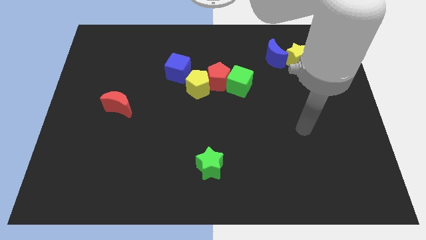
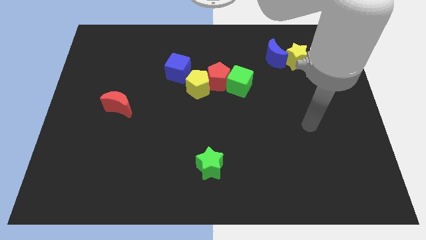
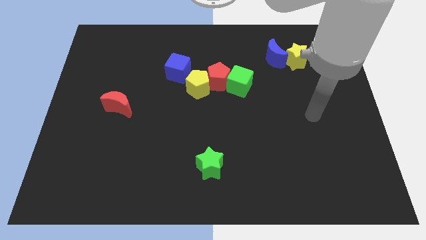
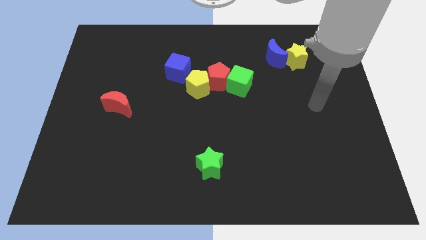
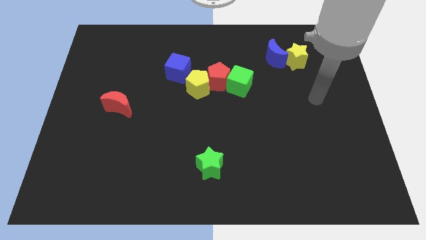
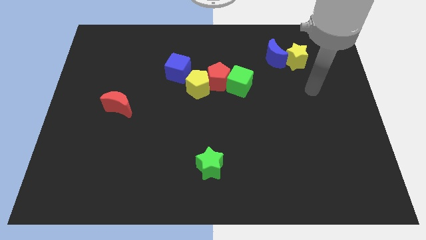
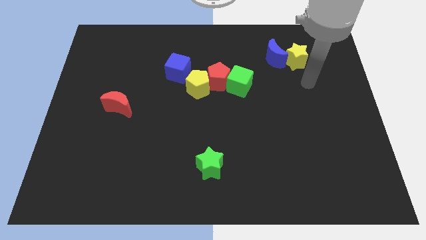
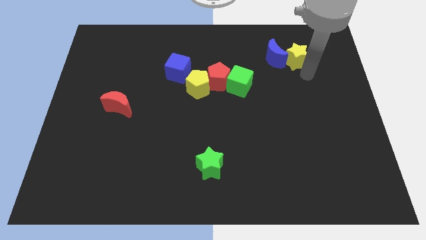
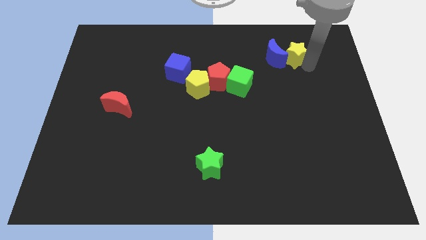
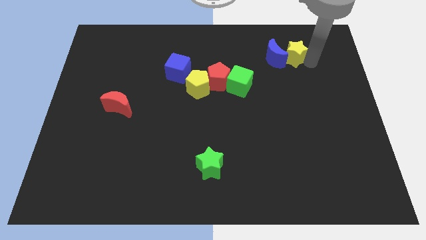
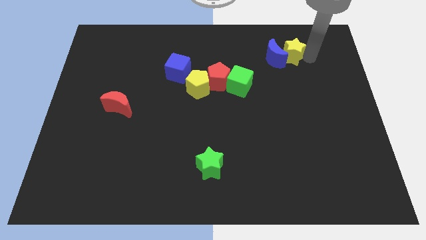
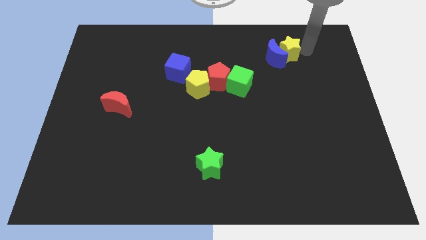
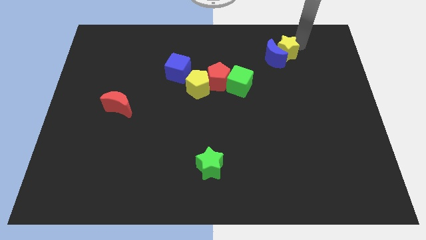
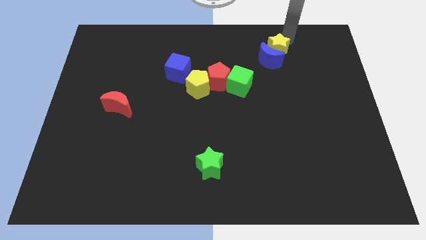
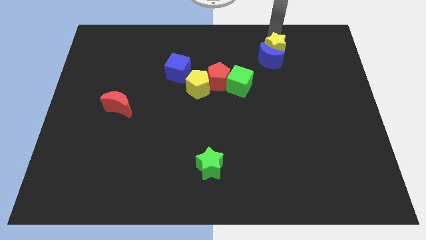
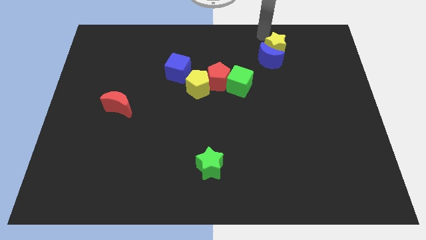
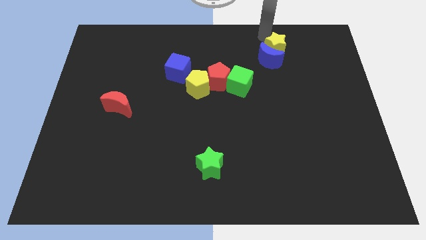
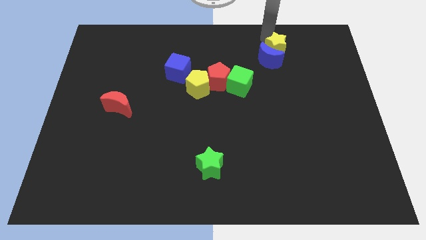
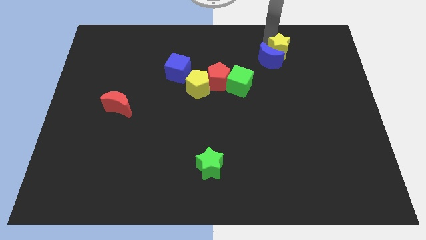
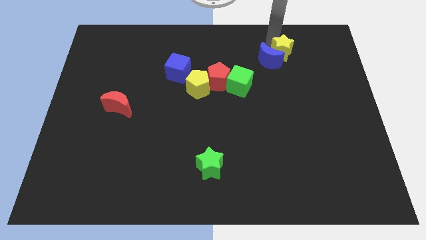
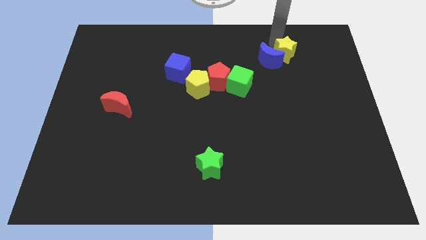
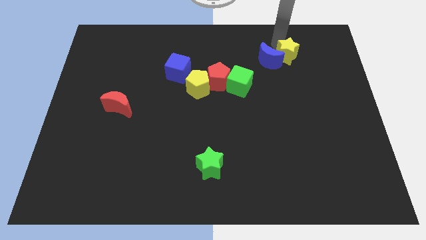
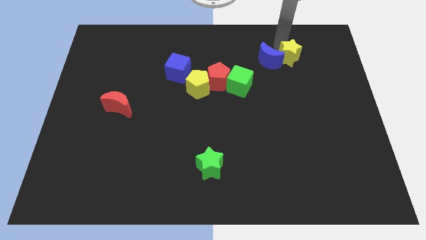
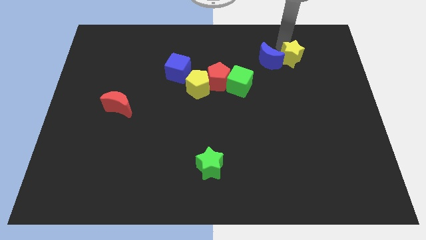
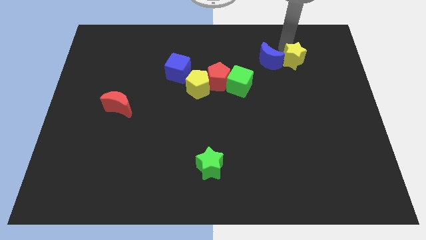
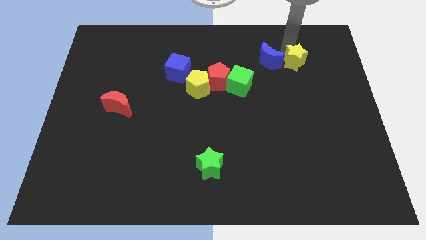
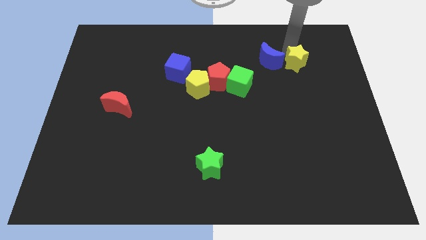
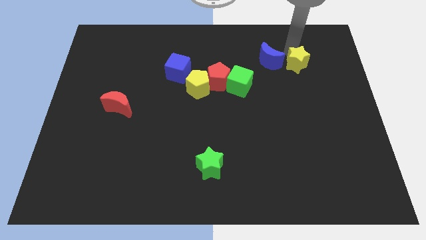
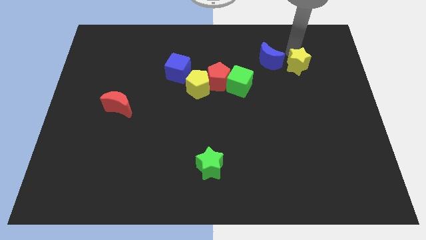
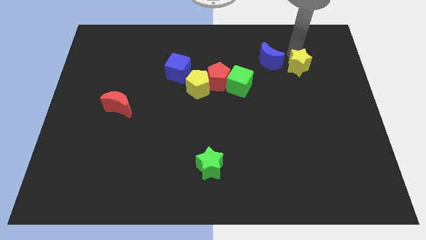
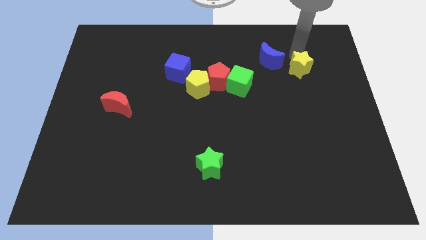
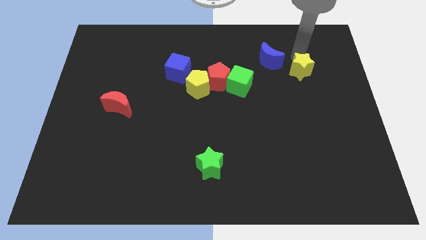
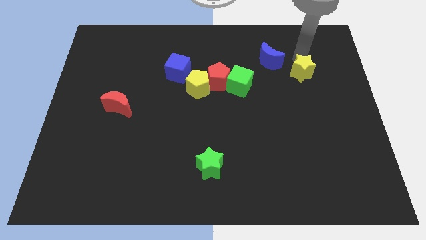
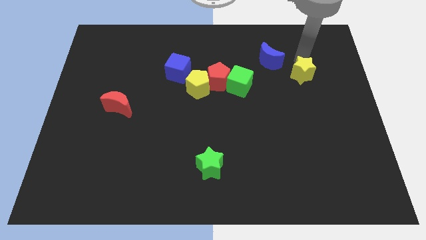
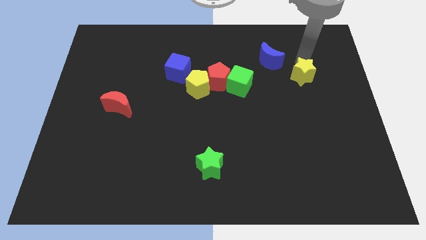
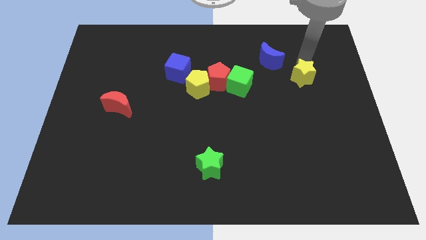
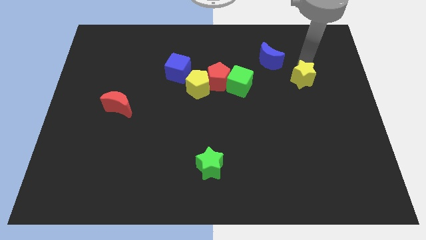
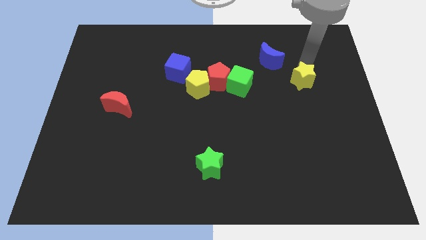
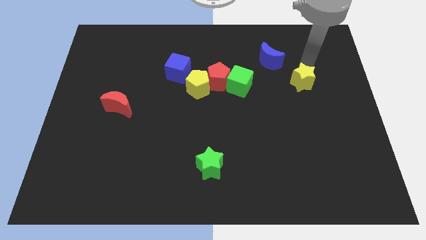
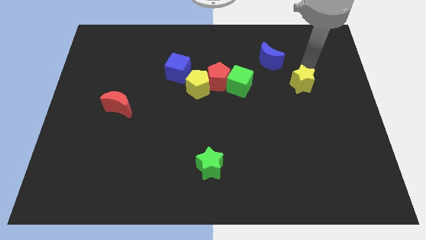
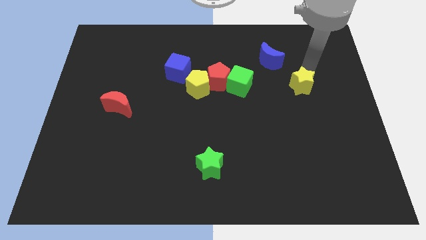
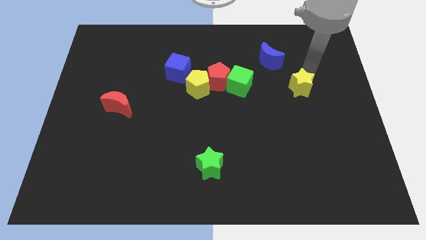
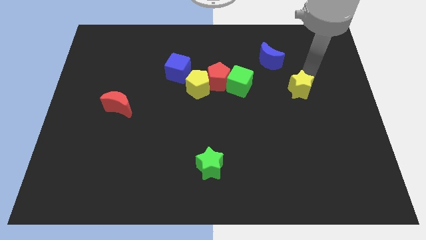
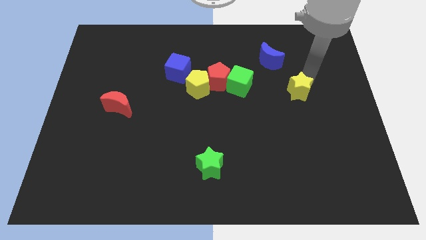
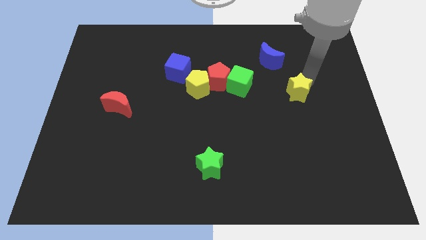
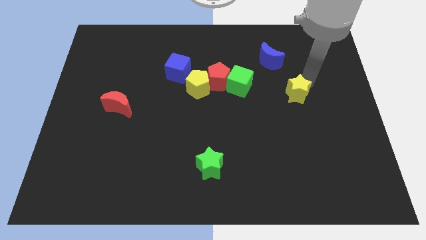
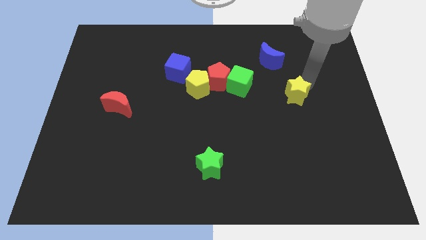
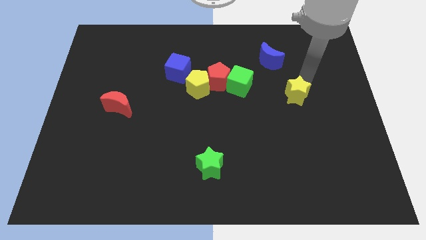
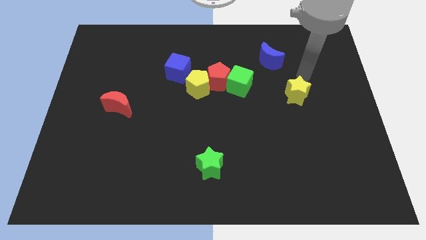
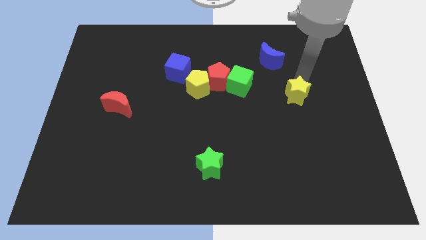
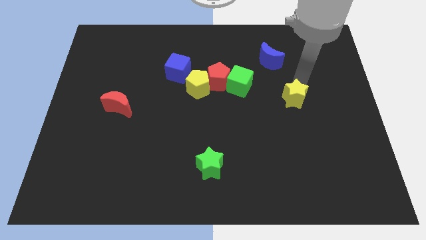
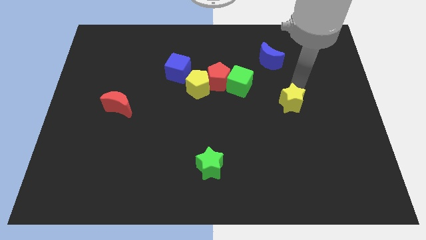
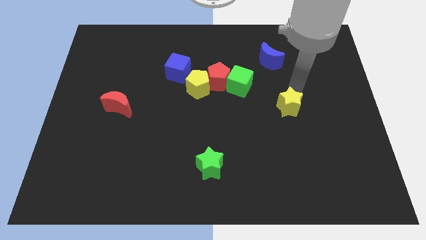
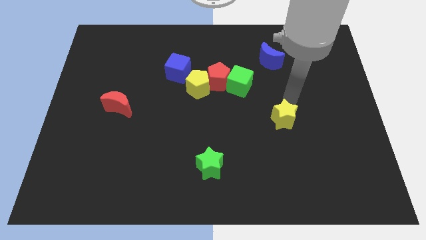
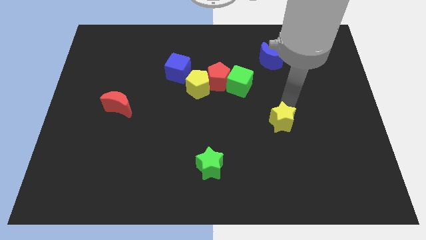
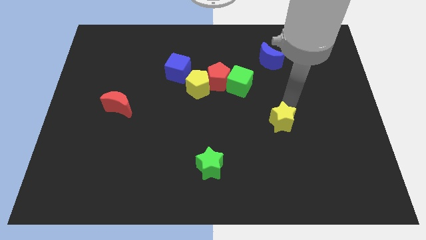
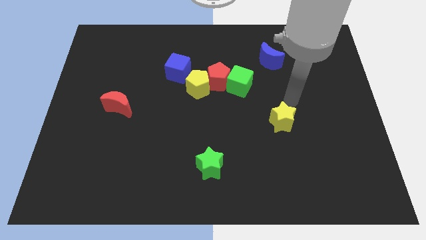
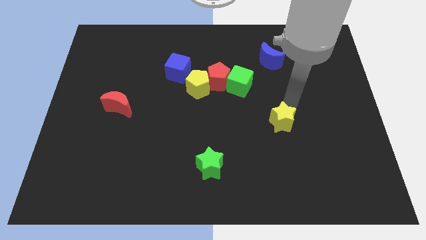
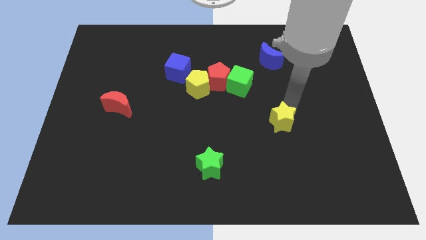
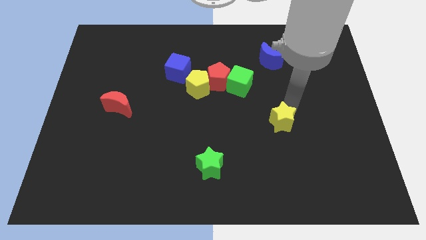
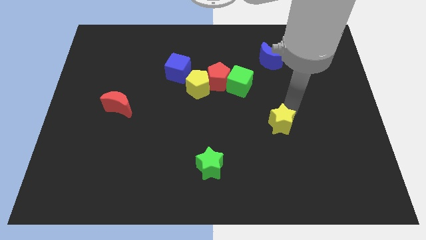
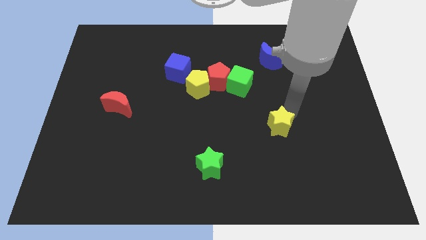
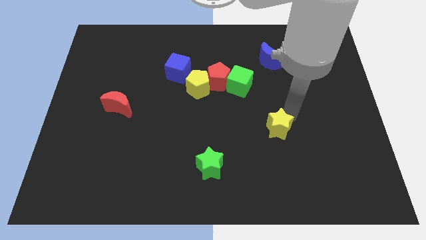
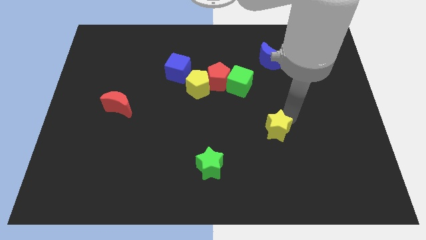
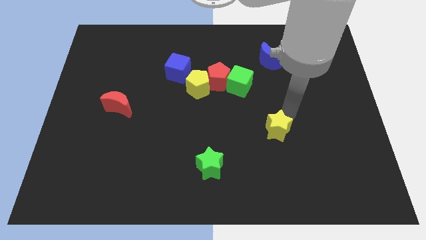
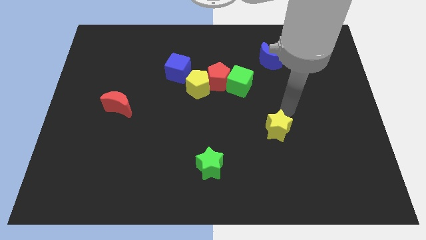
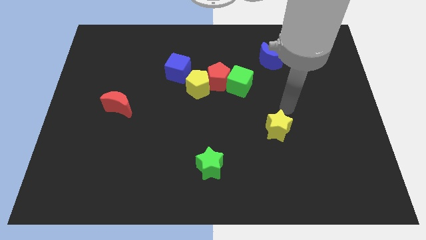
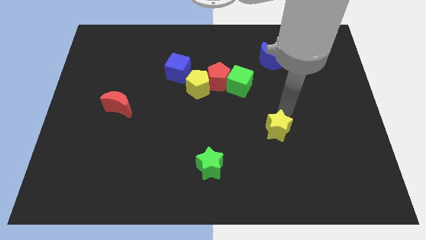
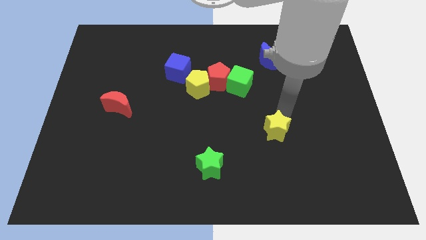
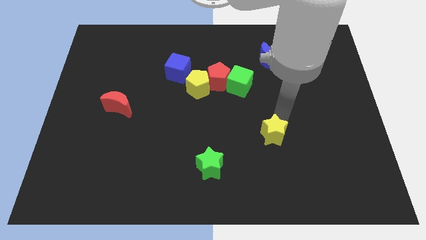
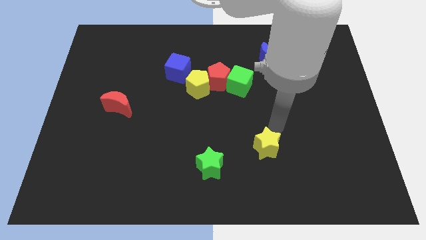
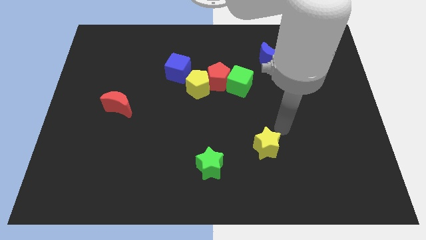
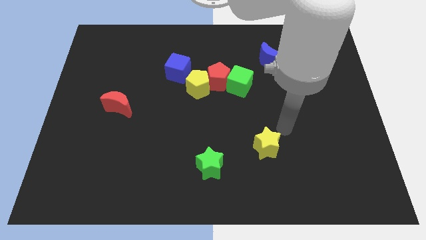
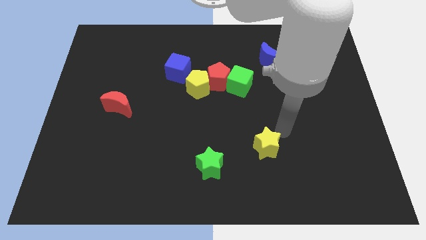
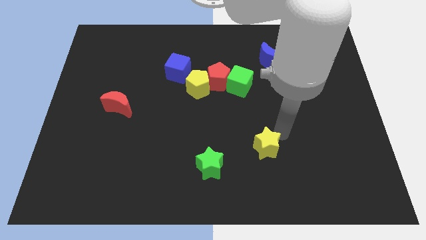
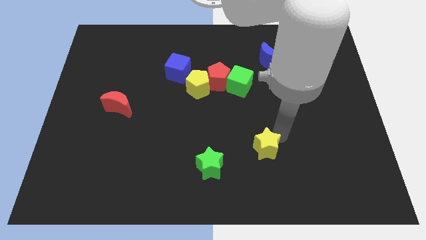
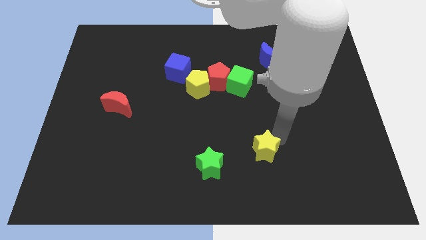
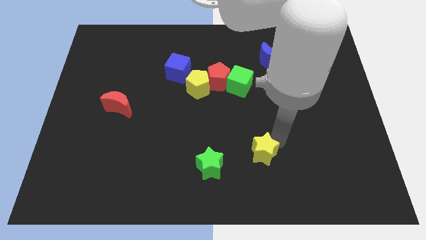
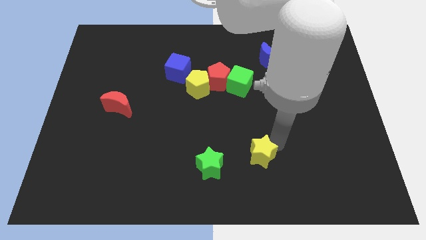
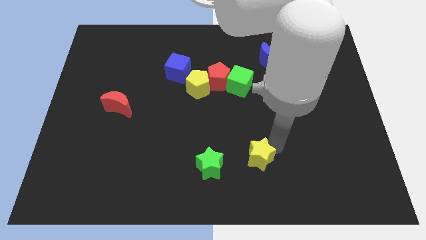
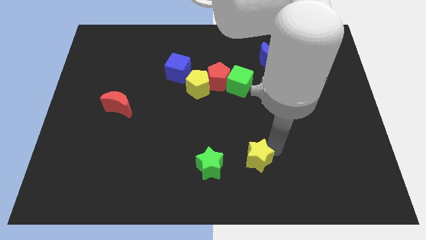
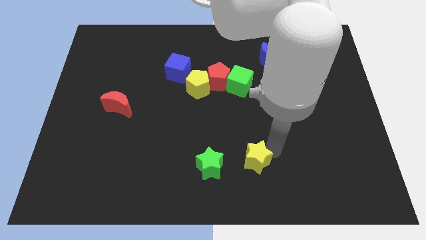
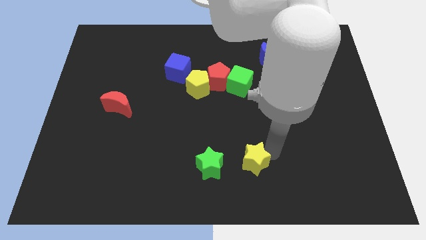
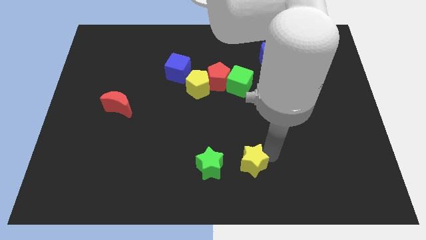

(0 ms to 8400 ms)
slide the yellow star to the bottom side
